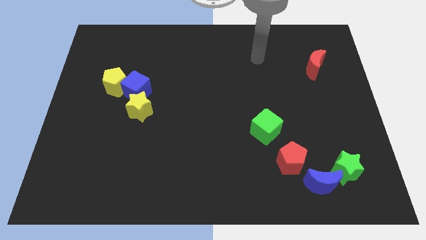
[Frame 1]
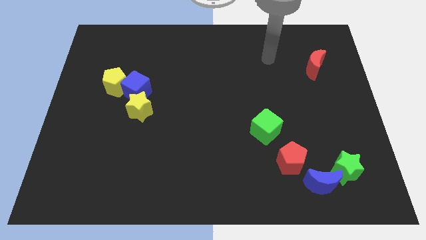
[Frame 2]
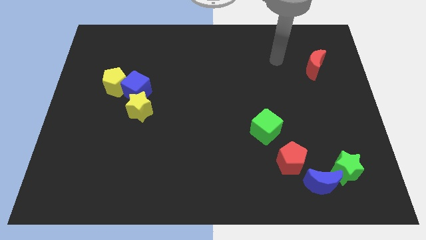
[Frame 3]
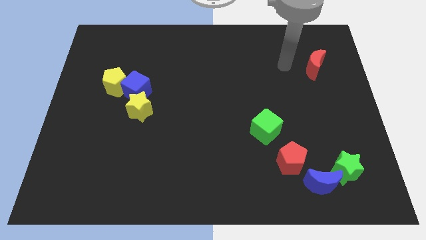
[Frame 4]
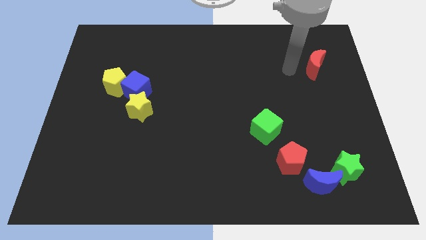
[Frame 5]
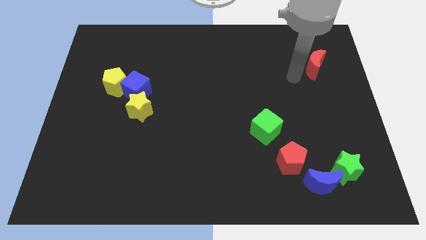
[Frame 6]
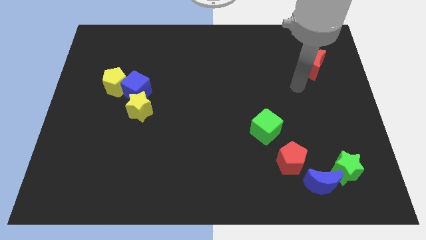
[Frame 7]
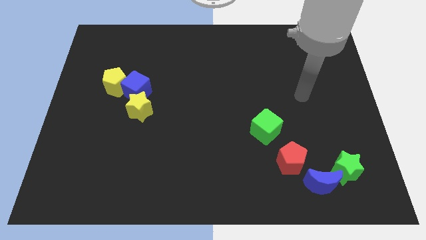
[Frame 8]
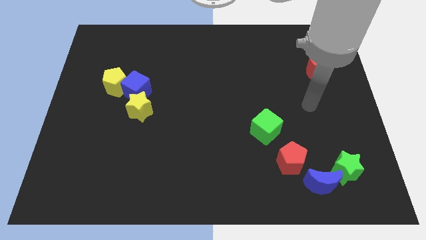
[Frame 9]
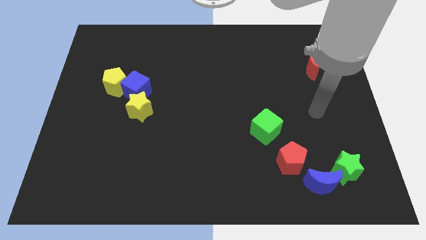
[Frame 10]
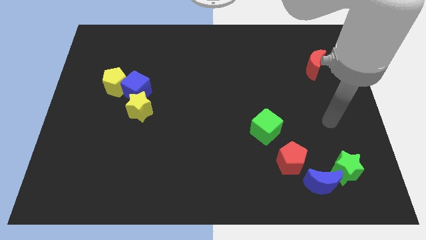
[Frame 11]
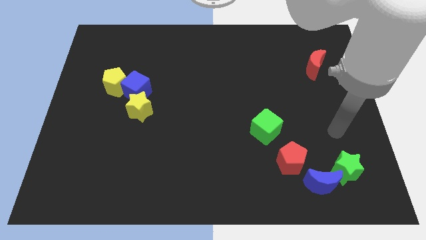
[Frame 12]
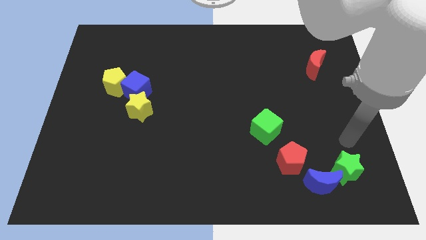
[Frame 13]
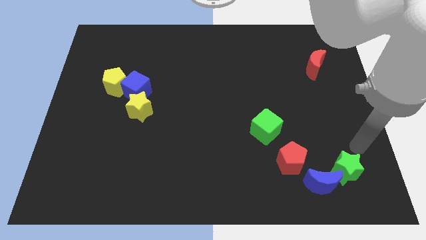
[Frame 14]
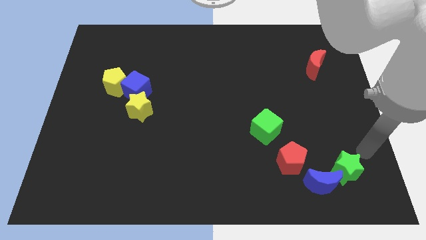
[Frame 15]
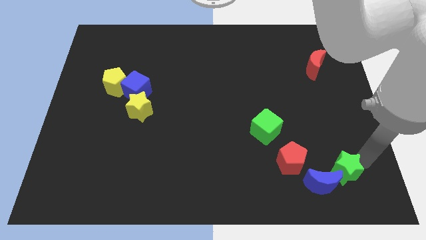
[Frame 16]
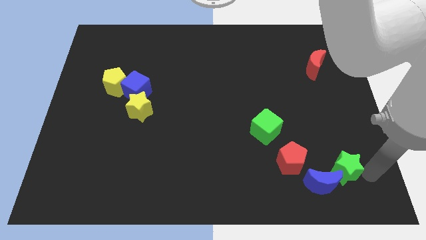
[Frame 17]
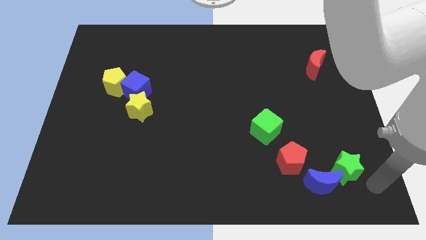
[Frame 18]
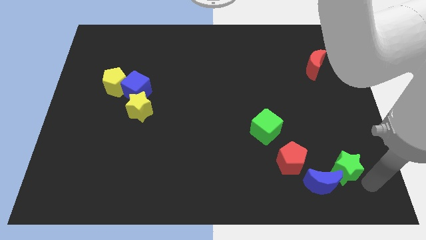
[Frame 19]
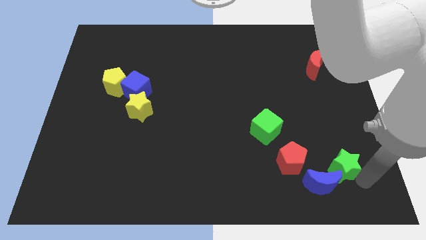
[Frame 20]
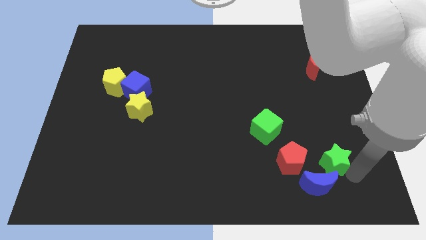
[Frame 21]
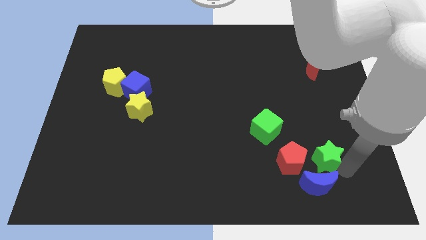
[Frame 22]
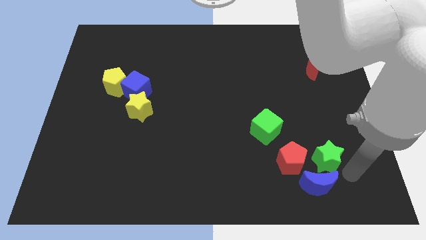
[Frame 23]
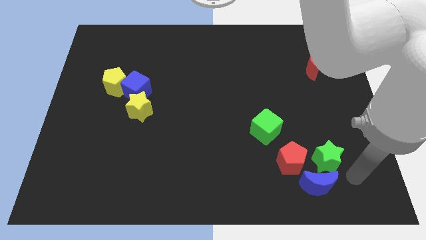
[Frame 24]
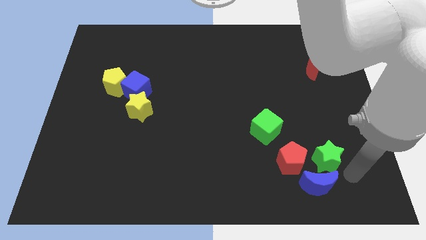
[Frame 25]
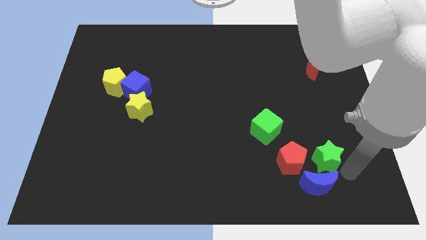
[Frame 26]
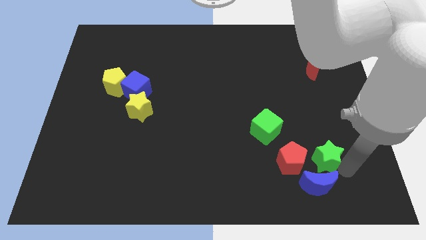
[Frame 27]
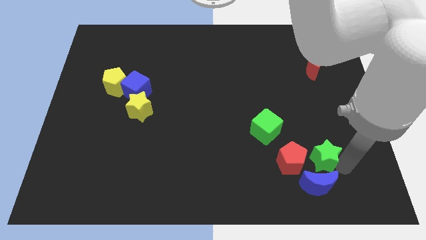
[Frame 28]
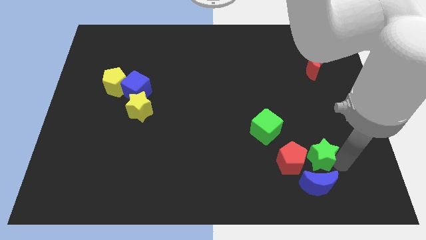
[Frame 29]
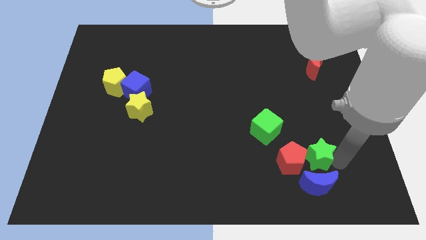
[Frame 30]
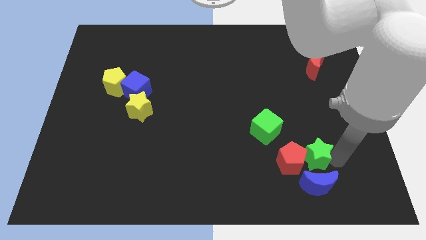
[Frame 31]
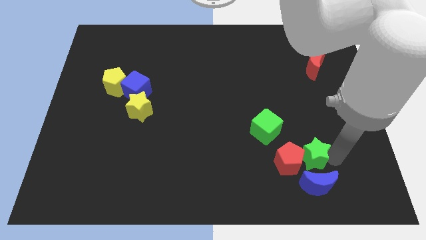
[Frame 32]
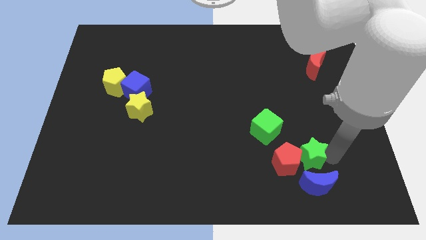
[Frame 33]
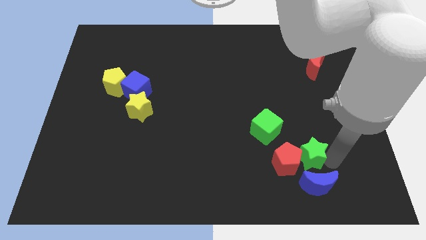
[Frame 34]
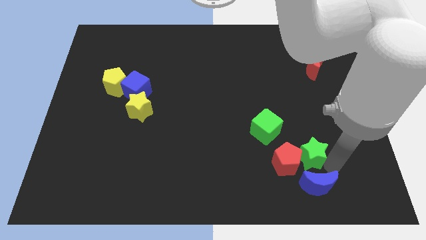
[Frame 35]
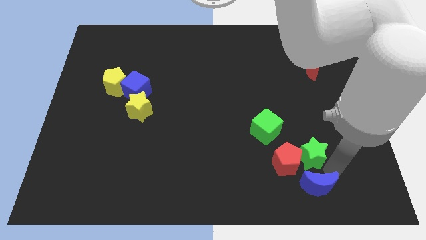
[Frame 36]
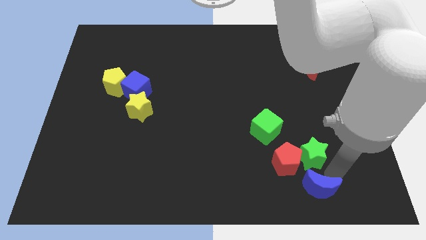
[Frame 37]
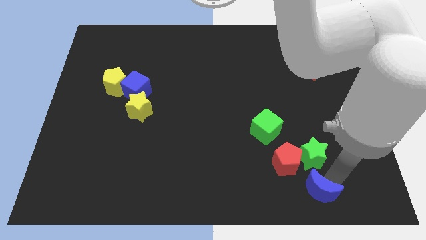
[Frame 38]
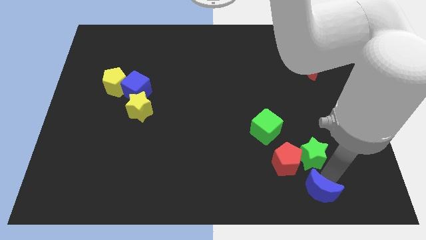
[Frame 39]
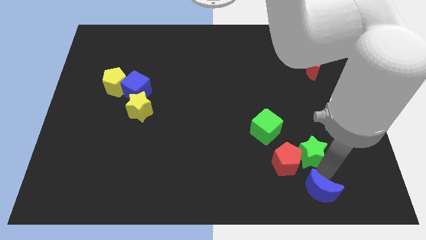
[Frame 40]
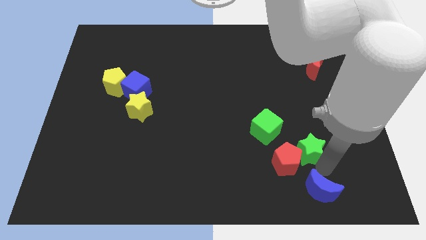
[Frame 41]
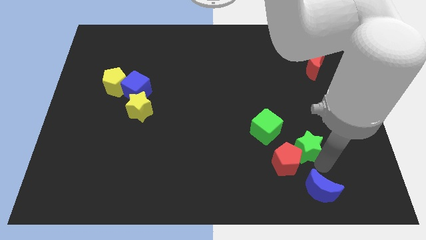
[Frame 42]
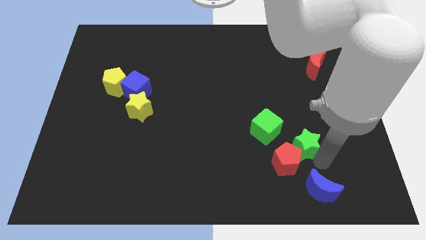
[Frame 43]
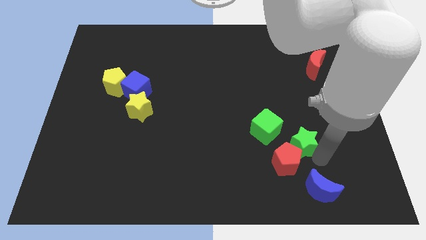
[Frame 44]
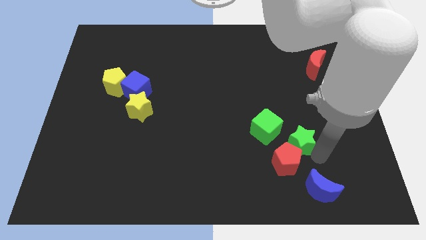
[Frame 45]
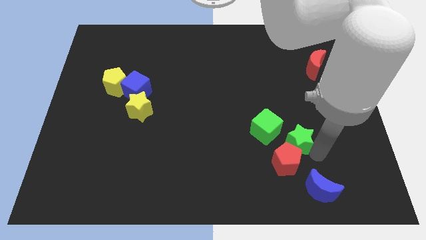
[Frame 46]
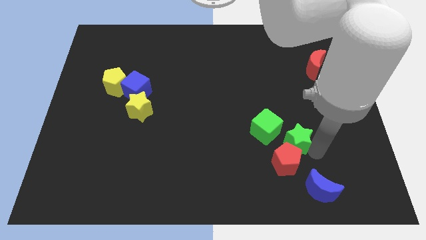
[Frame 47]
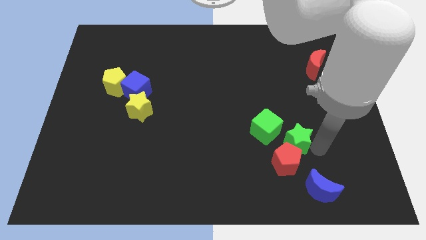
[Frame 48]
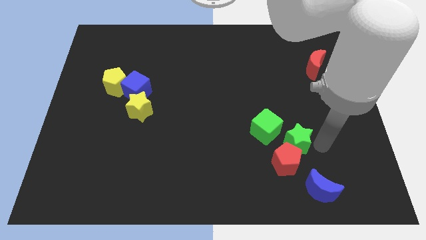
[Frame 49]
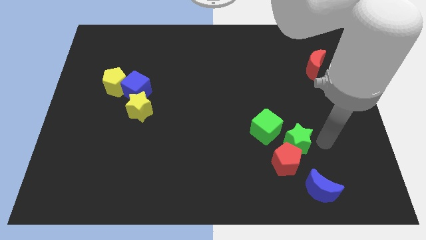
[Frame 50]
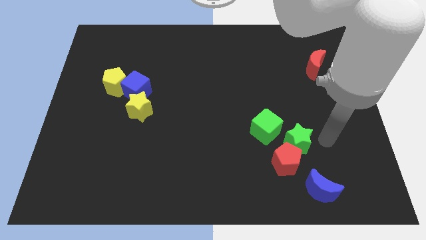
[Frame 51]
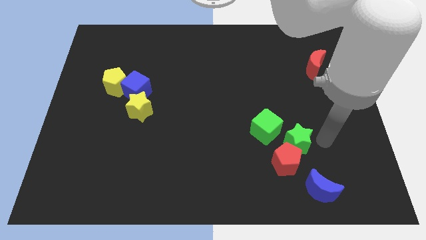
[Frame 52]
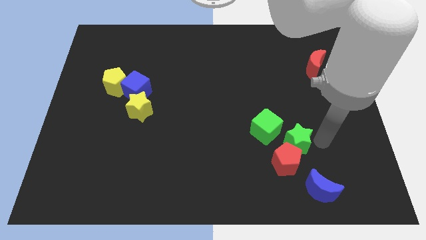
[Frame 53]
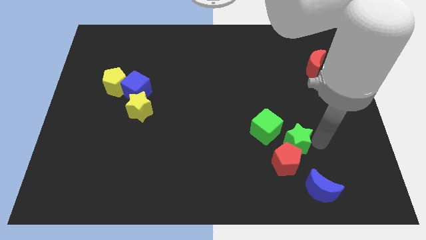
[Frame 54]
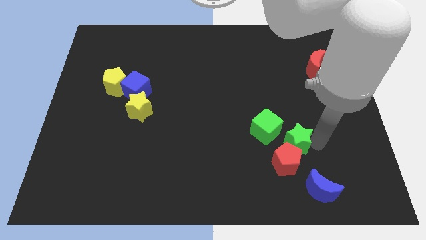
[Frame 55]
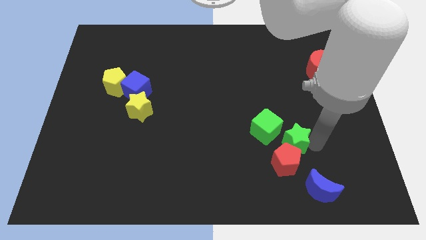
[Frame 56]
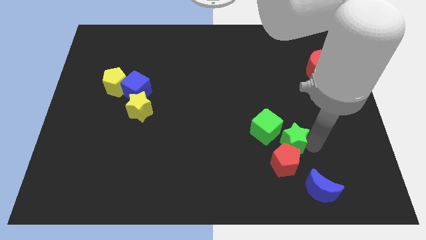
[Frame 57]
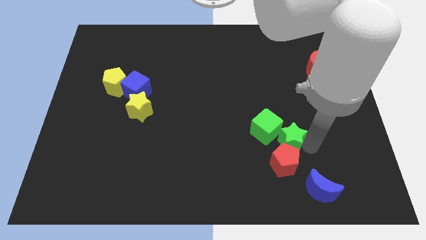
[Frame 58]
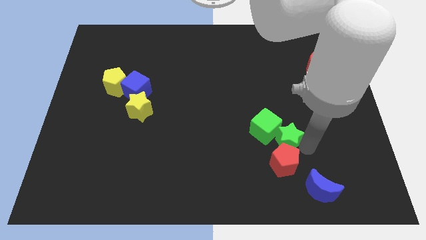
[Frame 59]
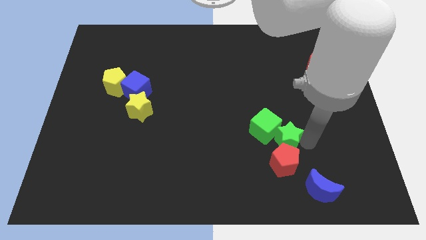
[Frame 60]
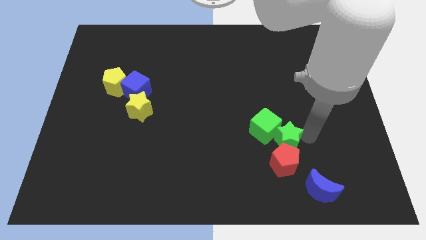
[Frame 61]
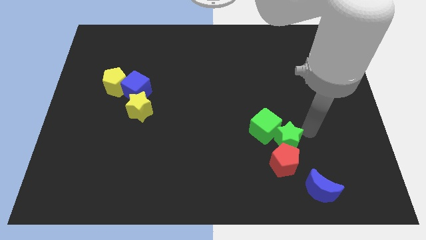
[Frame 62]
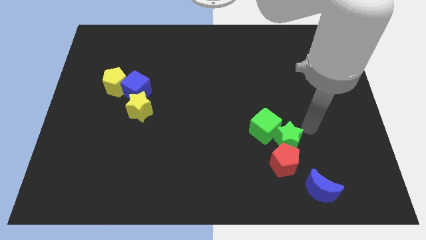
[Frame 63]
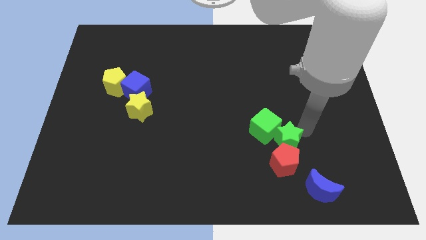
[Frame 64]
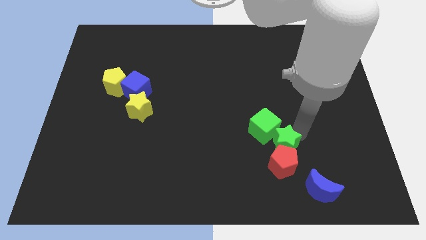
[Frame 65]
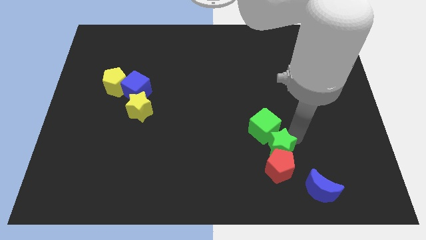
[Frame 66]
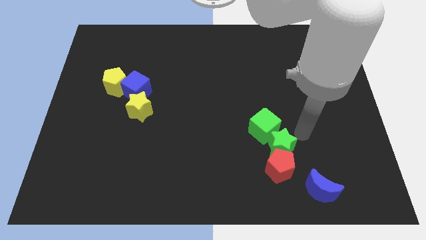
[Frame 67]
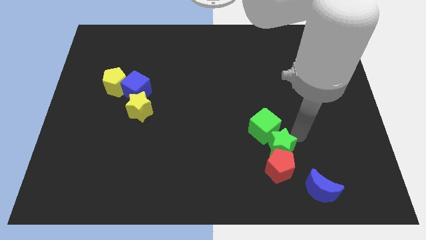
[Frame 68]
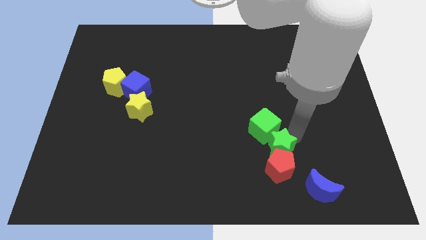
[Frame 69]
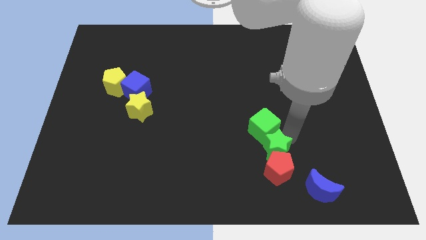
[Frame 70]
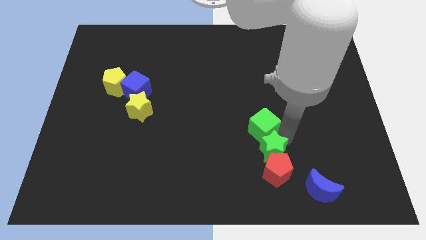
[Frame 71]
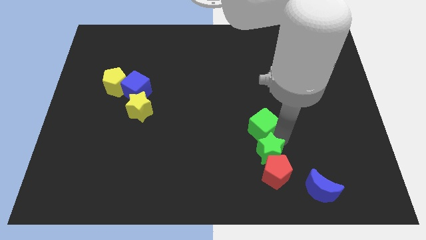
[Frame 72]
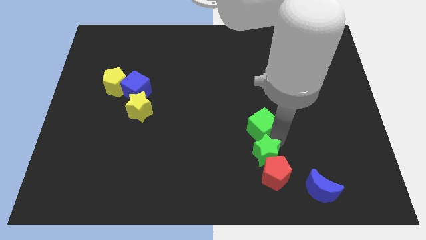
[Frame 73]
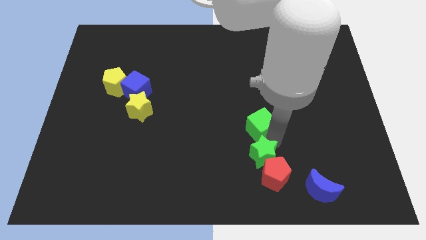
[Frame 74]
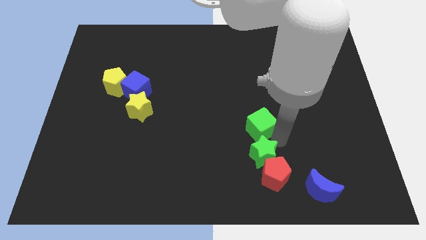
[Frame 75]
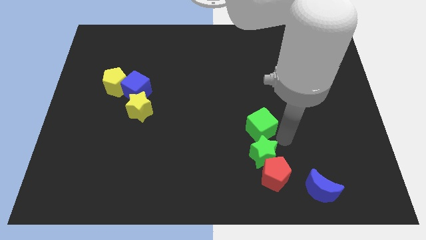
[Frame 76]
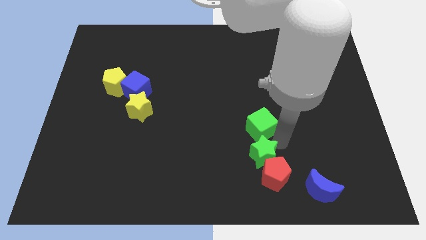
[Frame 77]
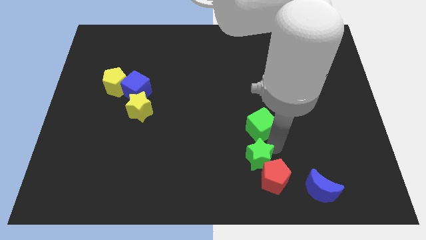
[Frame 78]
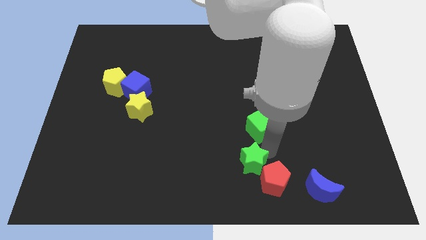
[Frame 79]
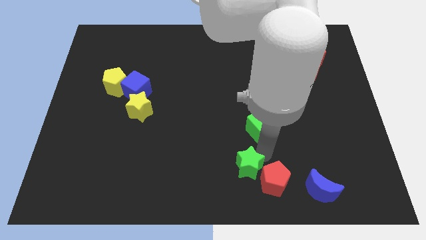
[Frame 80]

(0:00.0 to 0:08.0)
move the green star to the left
